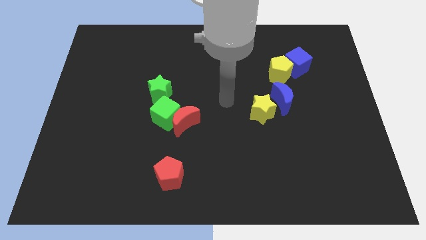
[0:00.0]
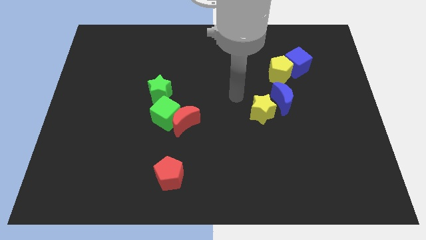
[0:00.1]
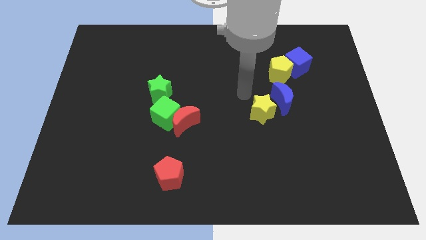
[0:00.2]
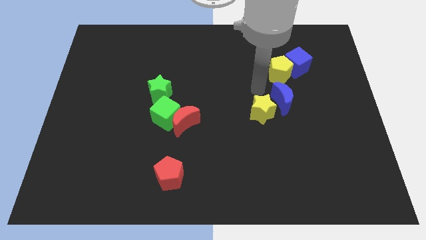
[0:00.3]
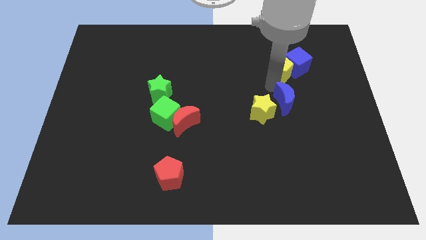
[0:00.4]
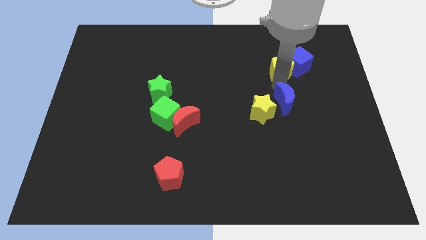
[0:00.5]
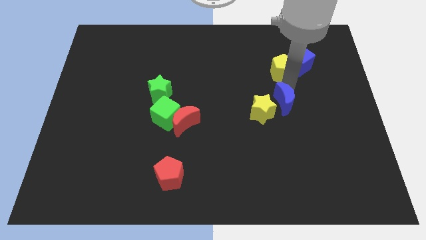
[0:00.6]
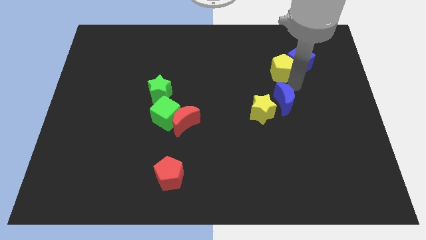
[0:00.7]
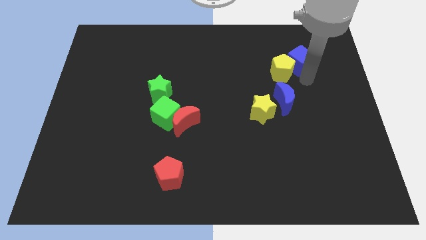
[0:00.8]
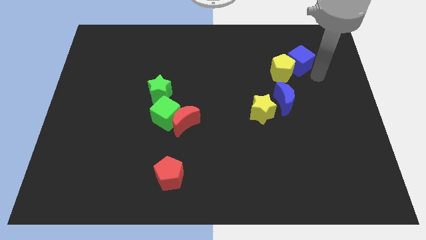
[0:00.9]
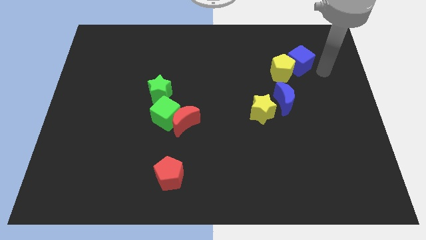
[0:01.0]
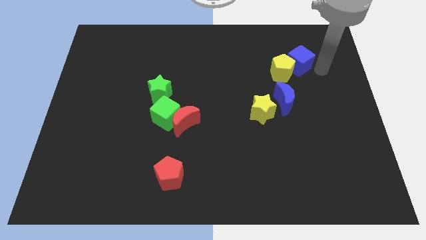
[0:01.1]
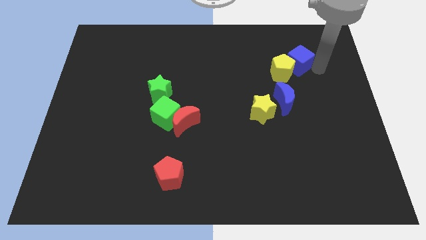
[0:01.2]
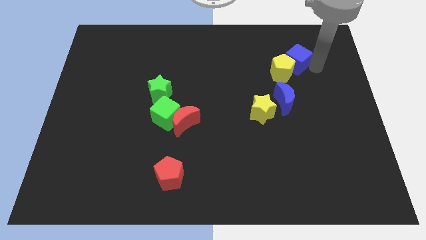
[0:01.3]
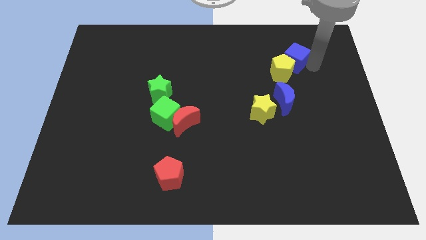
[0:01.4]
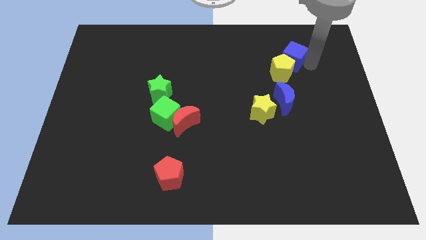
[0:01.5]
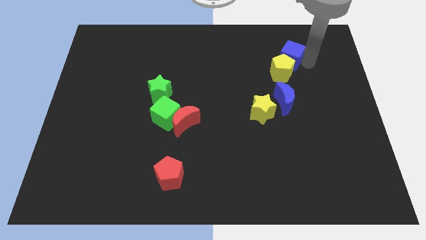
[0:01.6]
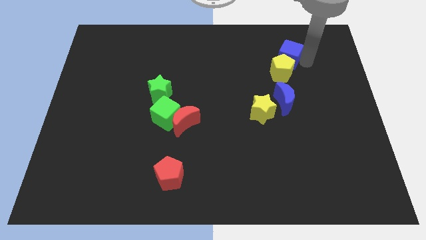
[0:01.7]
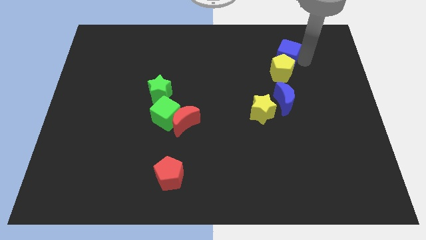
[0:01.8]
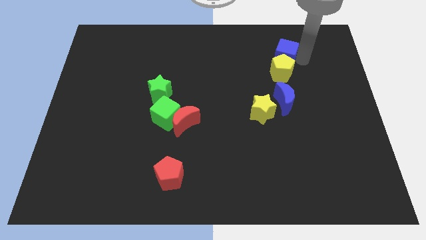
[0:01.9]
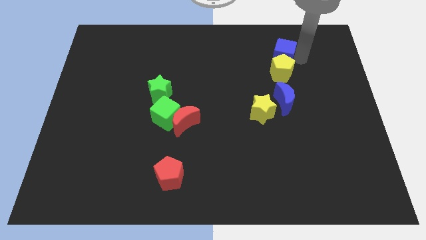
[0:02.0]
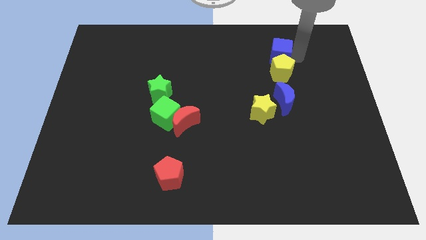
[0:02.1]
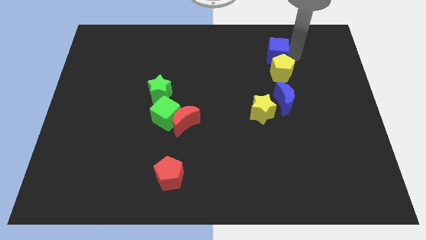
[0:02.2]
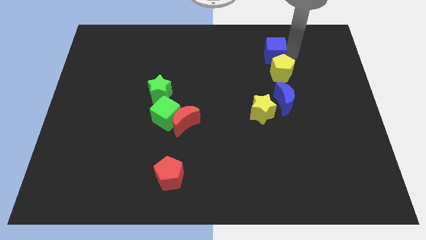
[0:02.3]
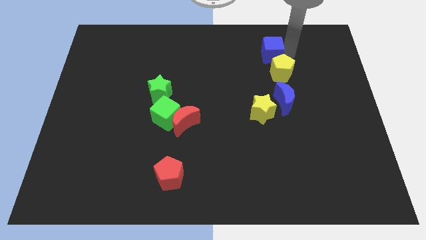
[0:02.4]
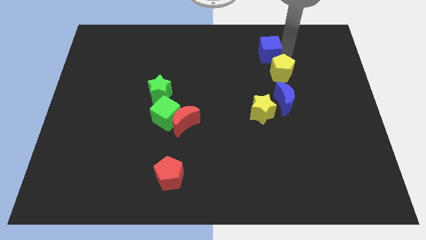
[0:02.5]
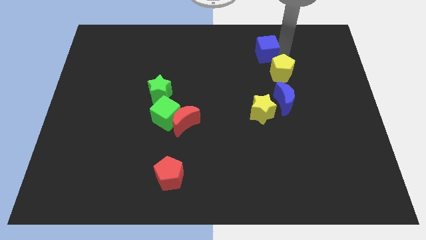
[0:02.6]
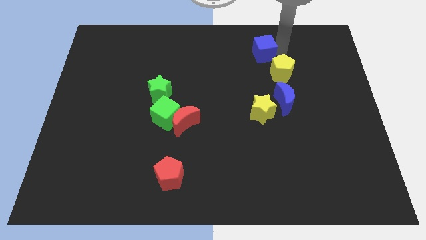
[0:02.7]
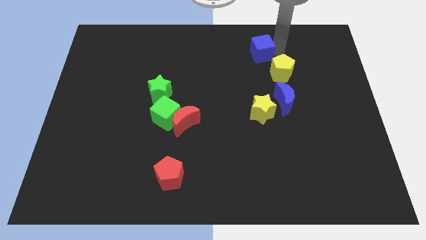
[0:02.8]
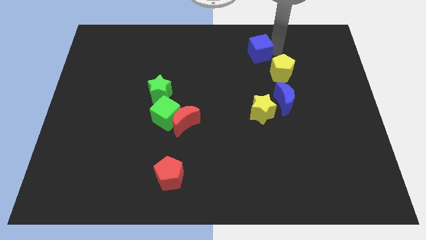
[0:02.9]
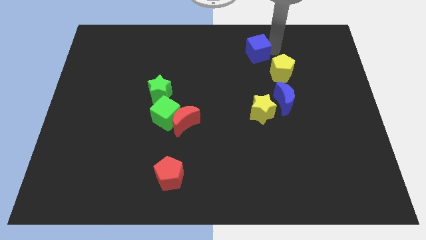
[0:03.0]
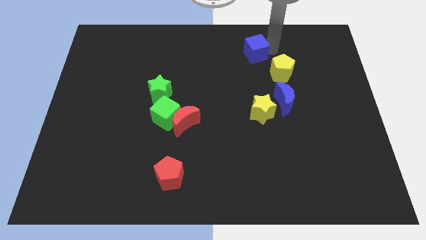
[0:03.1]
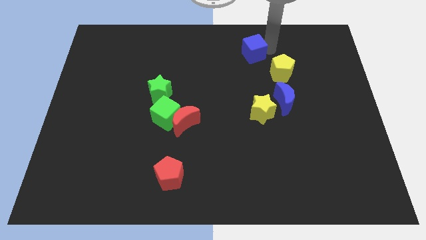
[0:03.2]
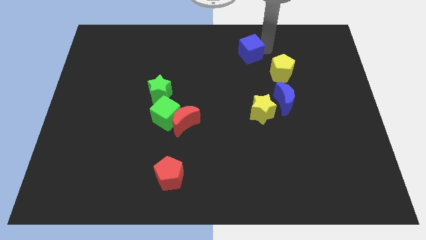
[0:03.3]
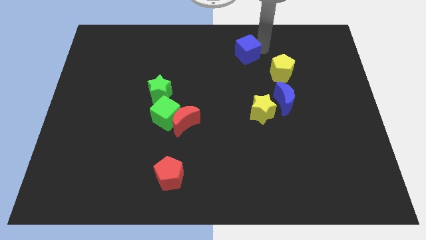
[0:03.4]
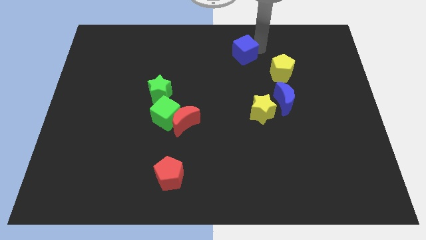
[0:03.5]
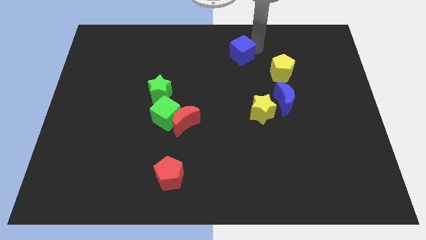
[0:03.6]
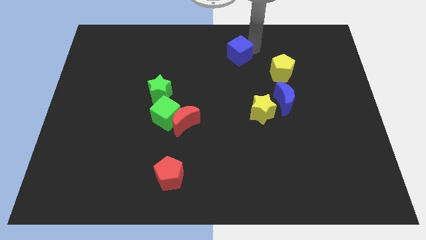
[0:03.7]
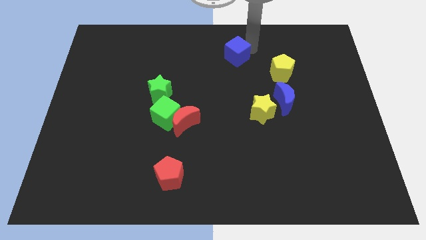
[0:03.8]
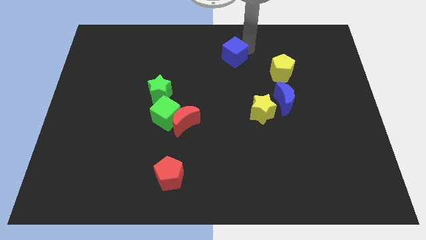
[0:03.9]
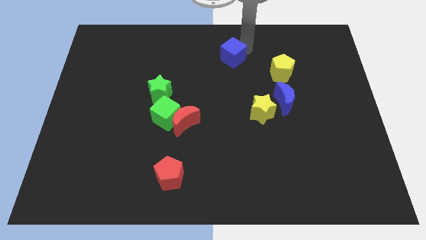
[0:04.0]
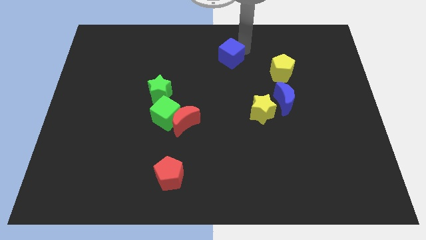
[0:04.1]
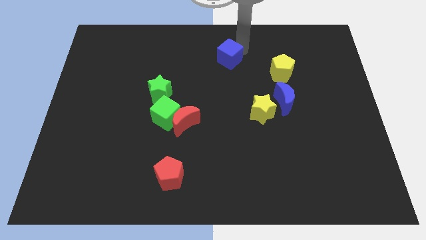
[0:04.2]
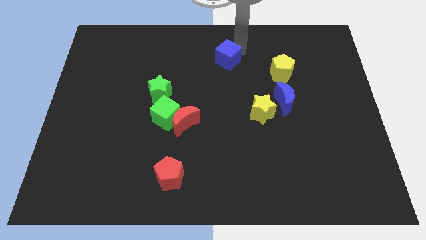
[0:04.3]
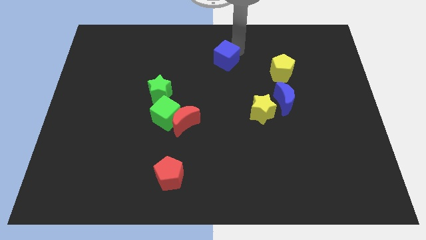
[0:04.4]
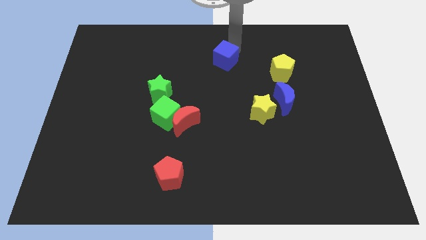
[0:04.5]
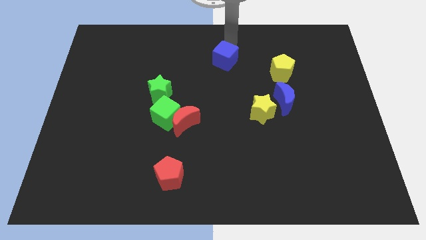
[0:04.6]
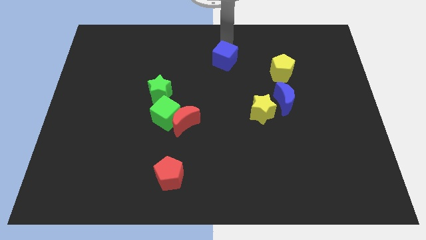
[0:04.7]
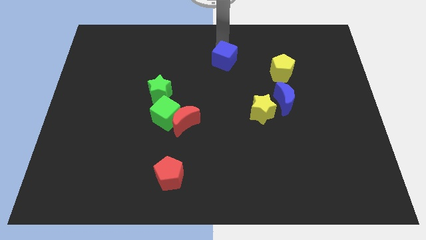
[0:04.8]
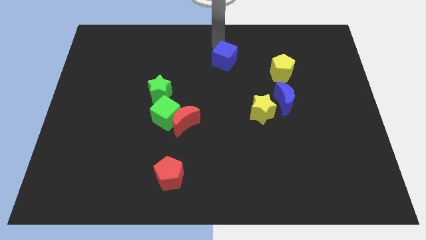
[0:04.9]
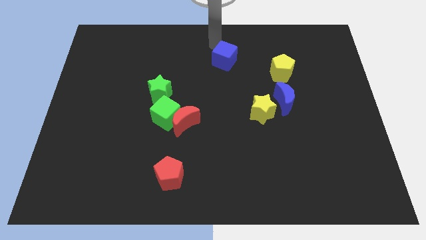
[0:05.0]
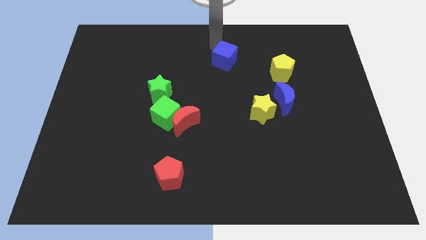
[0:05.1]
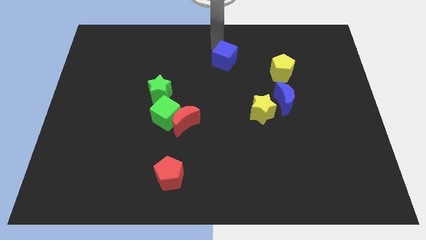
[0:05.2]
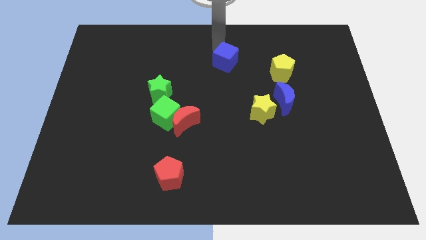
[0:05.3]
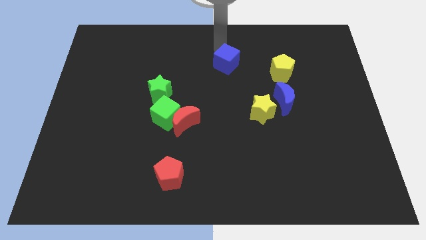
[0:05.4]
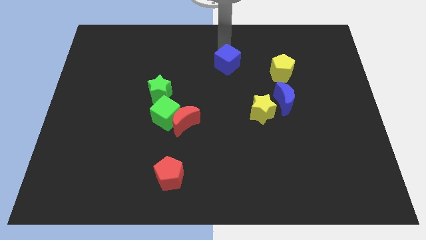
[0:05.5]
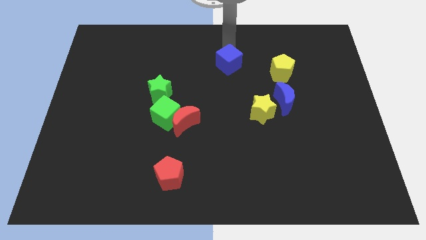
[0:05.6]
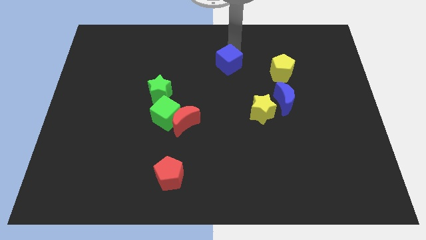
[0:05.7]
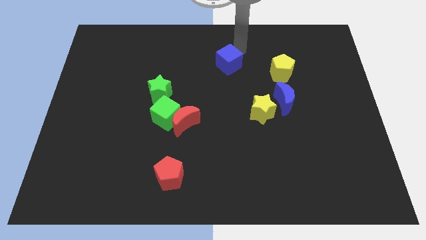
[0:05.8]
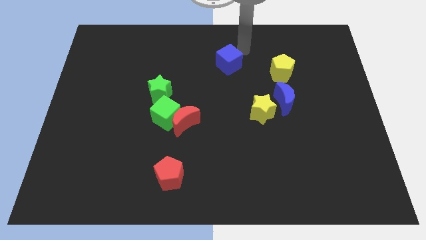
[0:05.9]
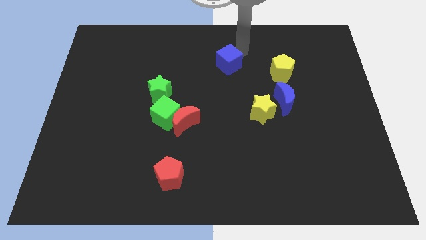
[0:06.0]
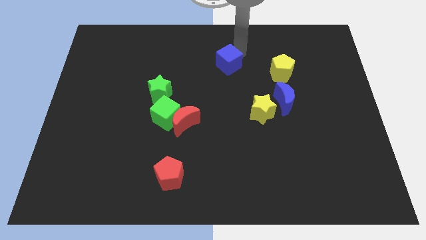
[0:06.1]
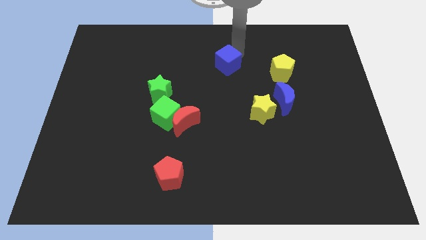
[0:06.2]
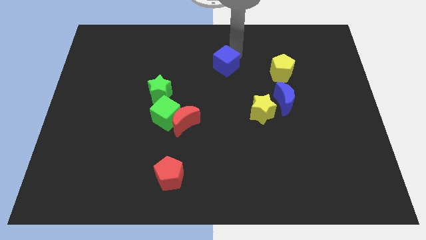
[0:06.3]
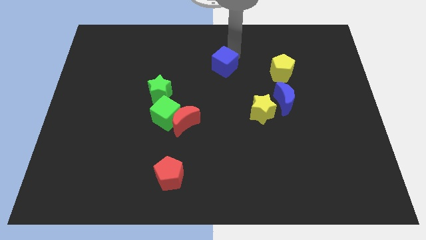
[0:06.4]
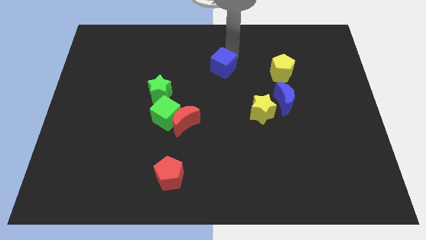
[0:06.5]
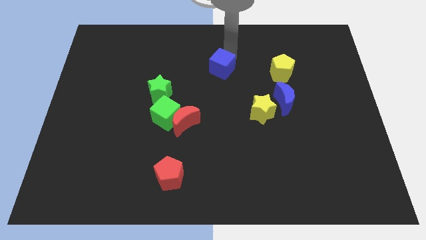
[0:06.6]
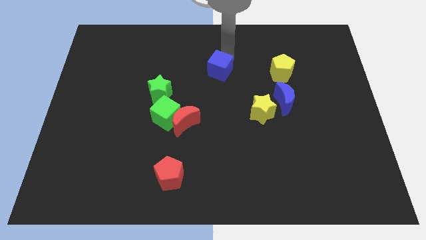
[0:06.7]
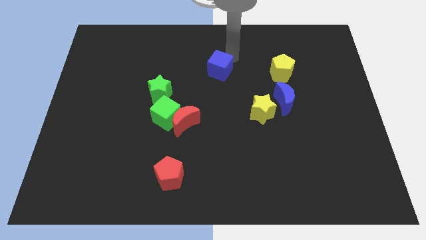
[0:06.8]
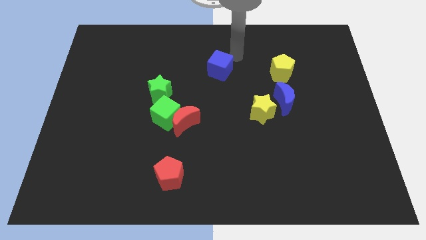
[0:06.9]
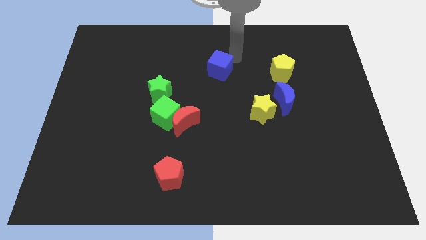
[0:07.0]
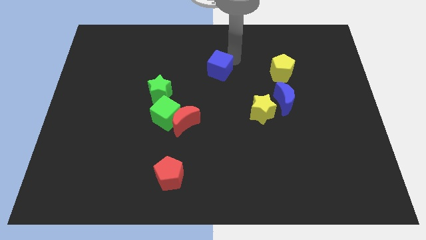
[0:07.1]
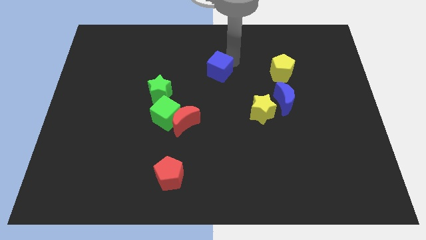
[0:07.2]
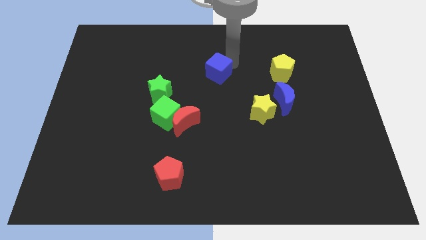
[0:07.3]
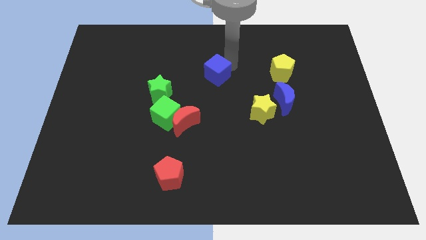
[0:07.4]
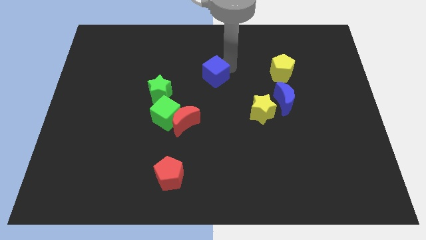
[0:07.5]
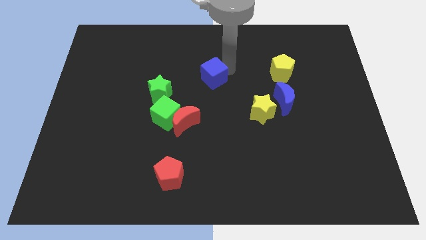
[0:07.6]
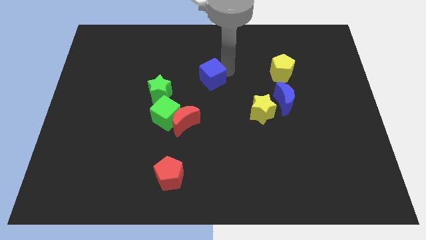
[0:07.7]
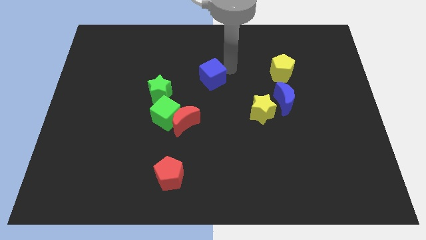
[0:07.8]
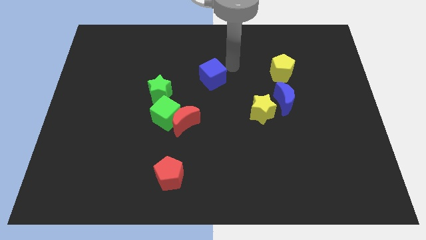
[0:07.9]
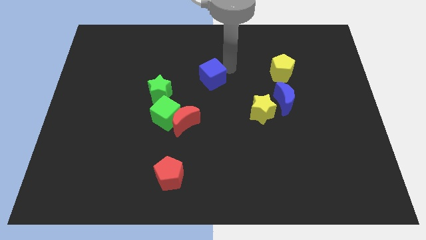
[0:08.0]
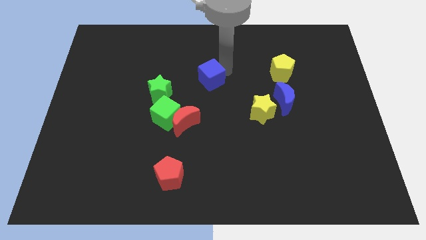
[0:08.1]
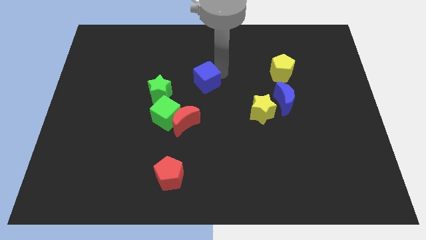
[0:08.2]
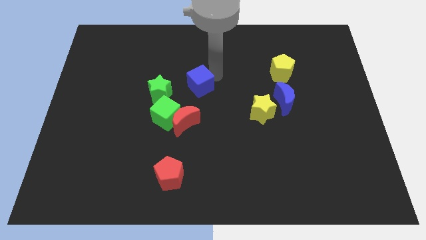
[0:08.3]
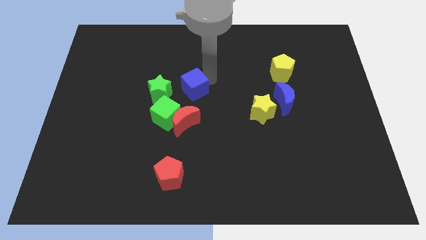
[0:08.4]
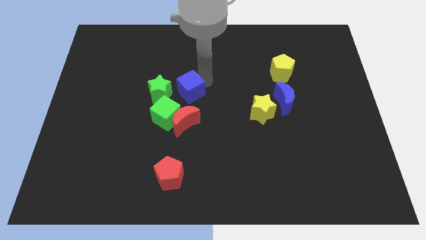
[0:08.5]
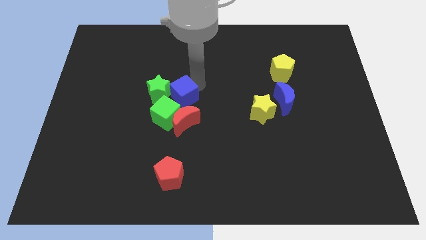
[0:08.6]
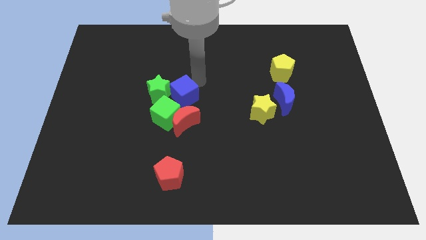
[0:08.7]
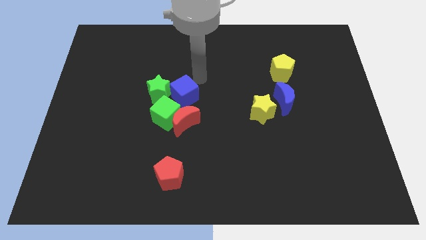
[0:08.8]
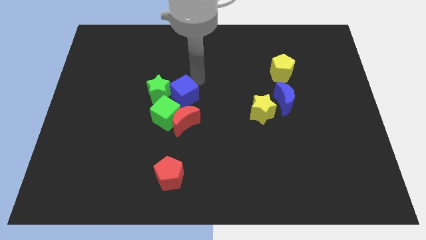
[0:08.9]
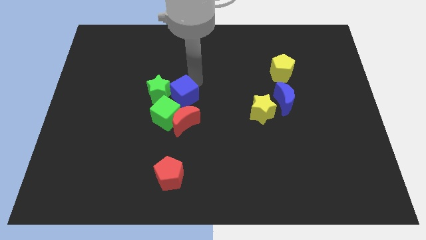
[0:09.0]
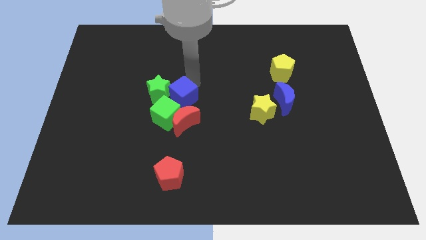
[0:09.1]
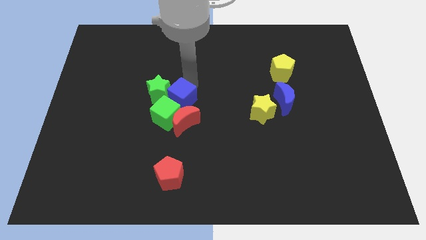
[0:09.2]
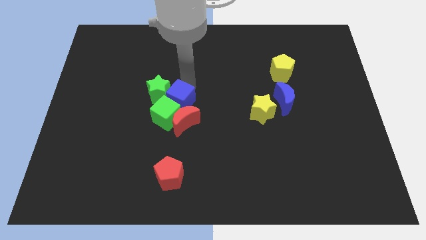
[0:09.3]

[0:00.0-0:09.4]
put the blue cube next to the green cube
